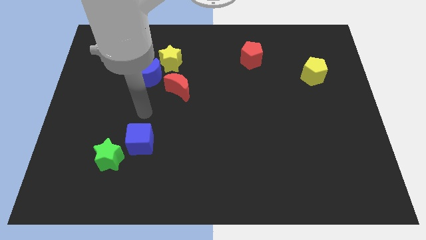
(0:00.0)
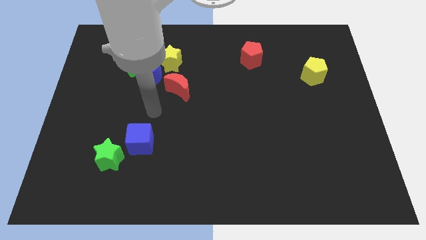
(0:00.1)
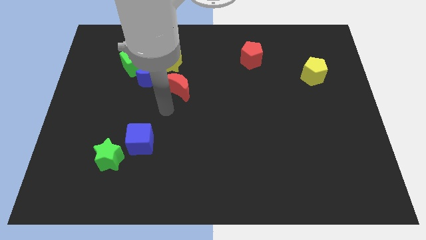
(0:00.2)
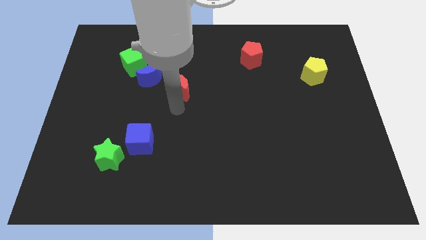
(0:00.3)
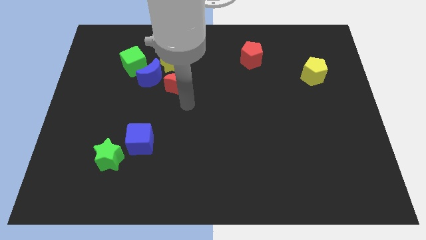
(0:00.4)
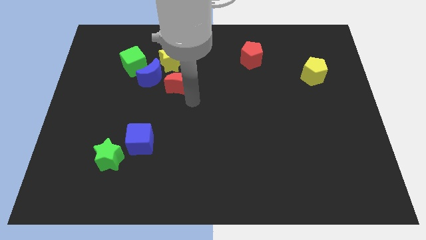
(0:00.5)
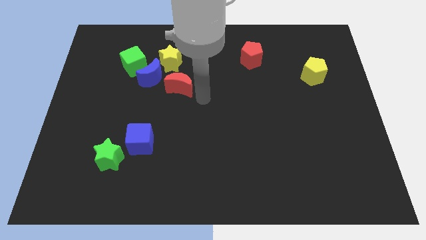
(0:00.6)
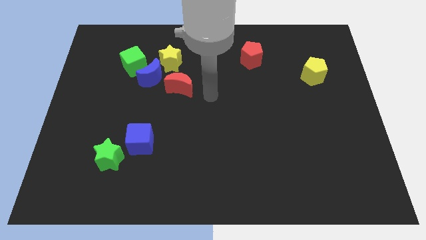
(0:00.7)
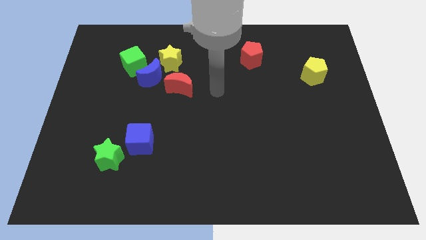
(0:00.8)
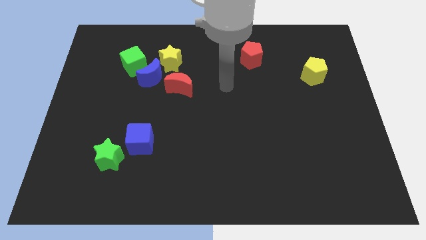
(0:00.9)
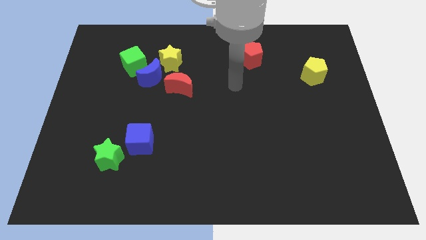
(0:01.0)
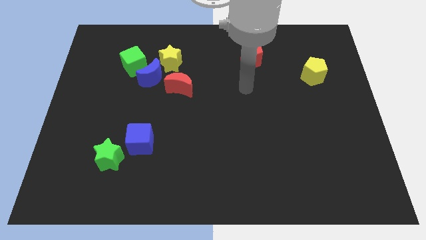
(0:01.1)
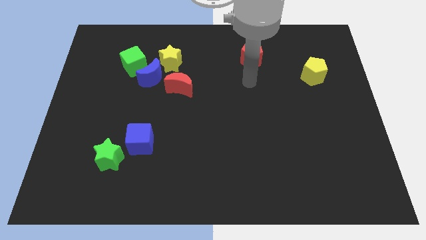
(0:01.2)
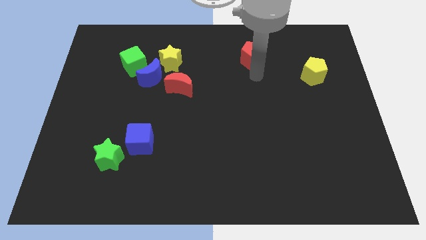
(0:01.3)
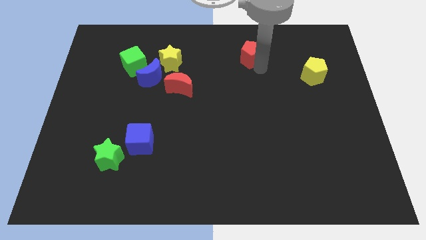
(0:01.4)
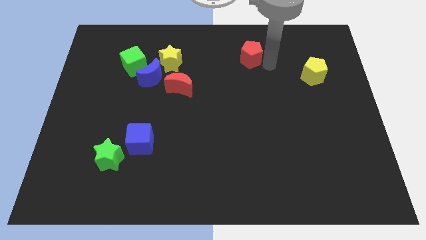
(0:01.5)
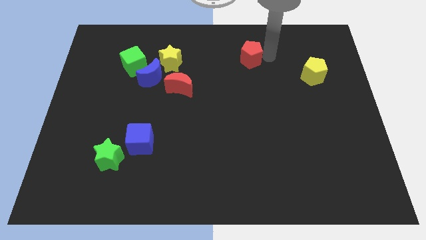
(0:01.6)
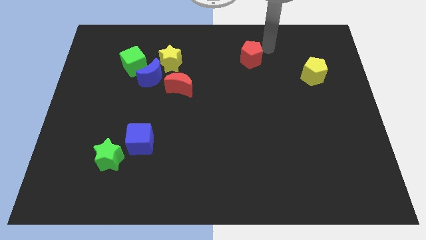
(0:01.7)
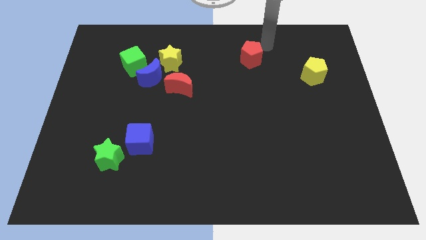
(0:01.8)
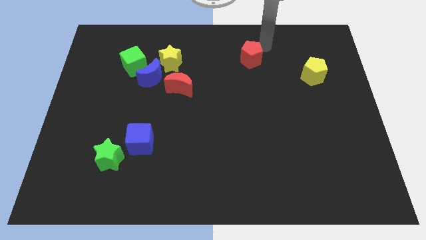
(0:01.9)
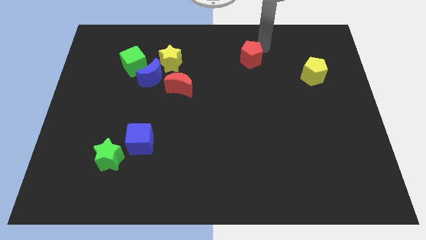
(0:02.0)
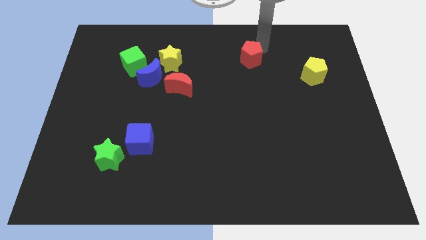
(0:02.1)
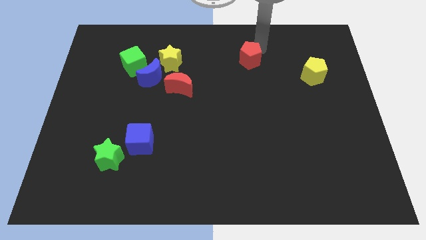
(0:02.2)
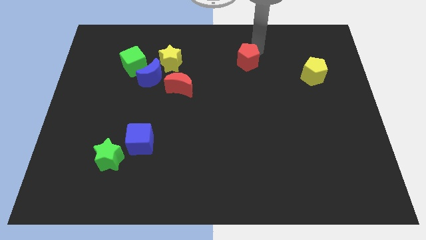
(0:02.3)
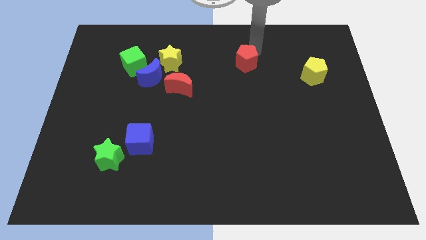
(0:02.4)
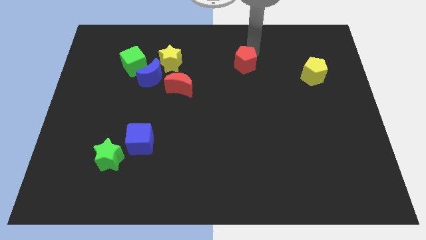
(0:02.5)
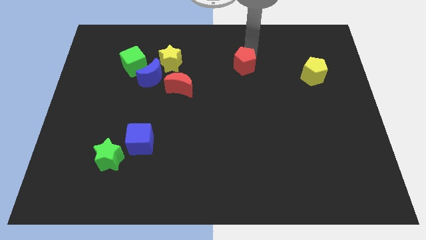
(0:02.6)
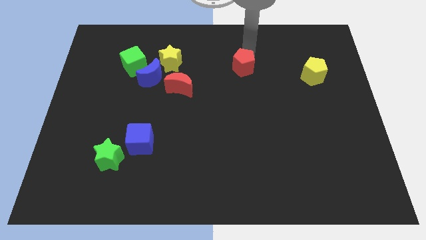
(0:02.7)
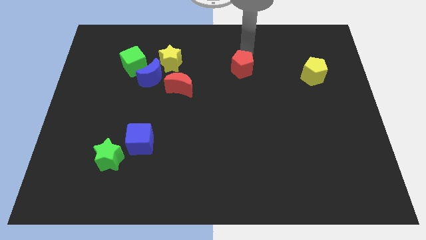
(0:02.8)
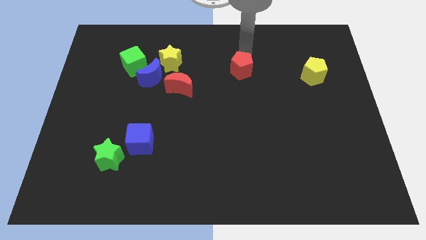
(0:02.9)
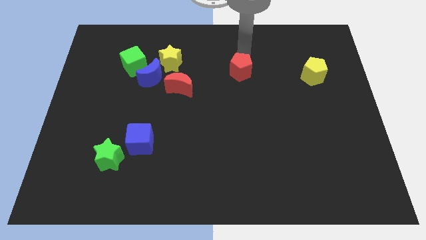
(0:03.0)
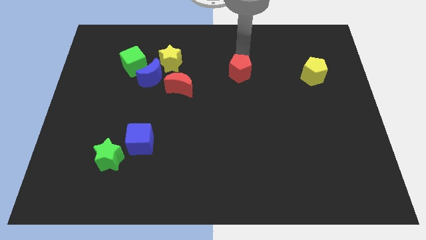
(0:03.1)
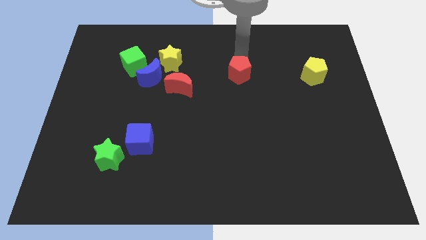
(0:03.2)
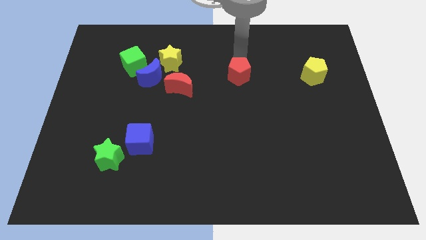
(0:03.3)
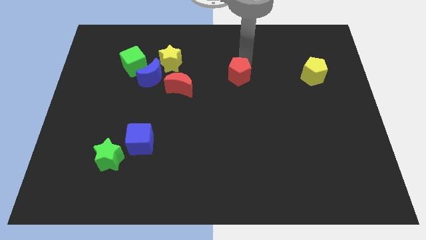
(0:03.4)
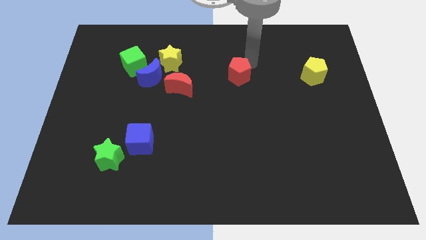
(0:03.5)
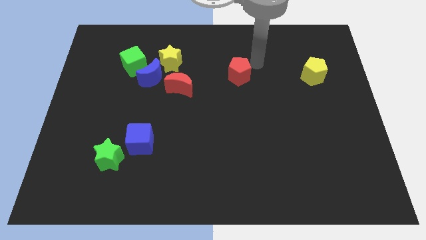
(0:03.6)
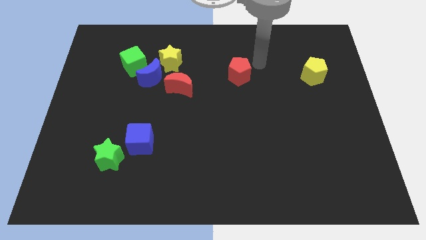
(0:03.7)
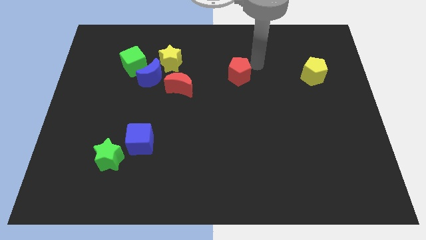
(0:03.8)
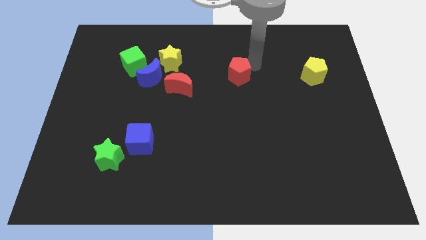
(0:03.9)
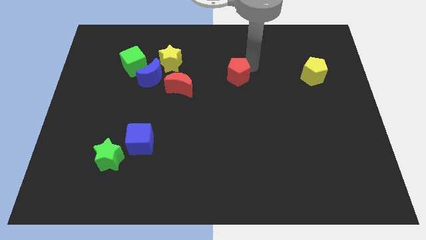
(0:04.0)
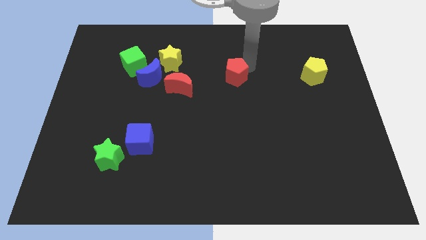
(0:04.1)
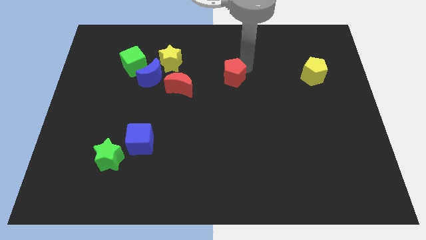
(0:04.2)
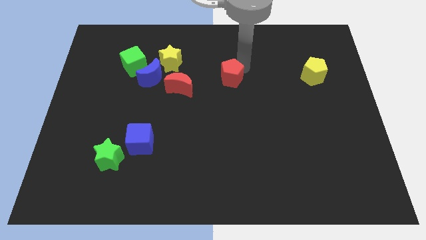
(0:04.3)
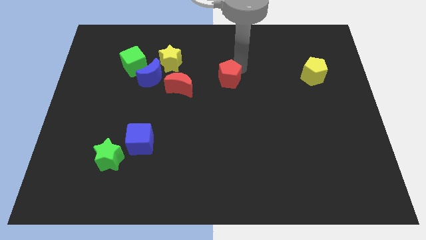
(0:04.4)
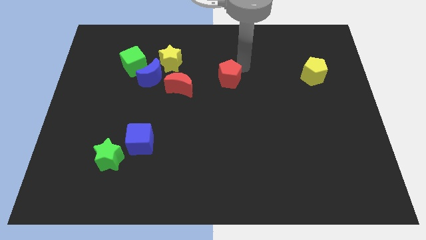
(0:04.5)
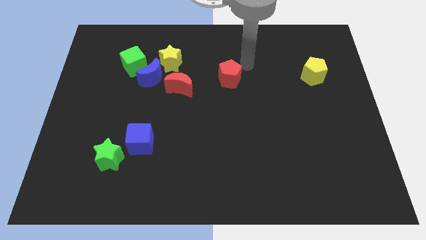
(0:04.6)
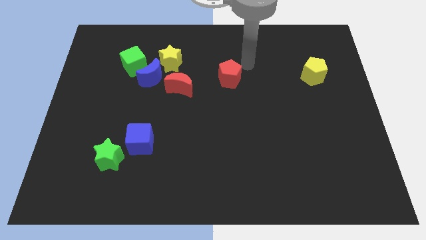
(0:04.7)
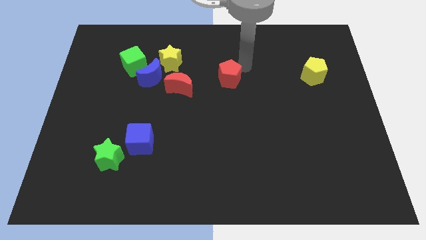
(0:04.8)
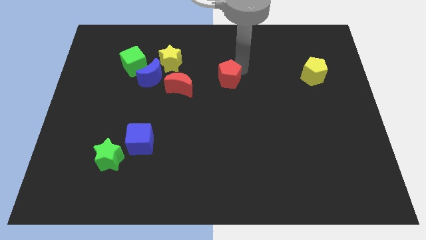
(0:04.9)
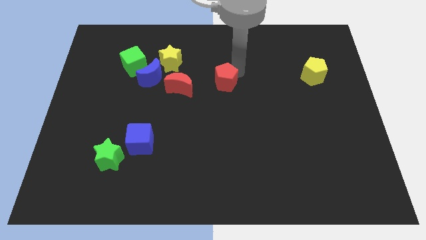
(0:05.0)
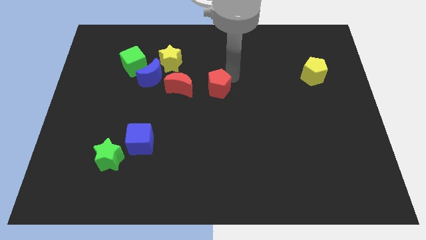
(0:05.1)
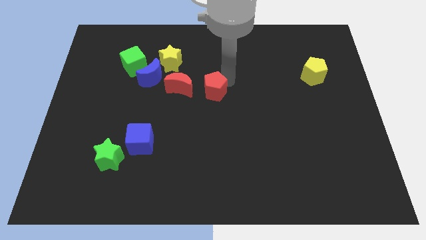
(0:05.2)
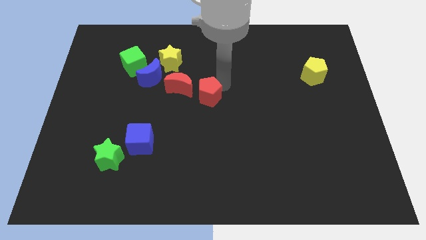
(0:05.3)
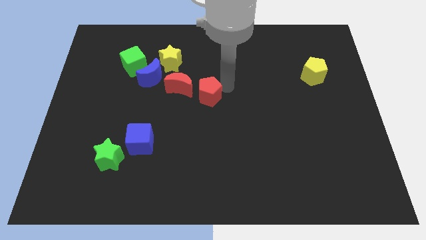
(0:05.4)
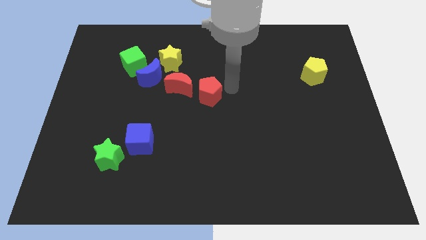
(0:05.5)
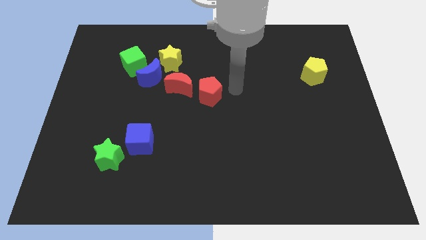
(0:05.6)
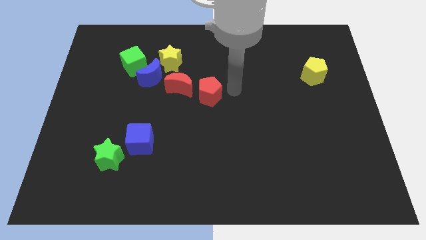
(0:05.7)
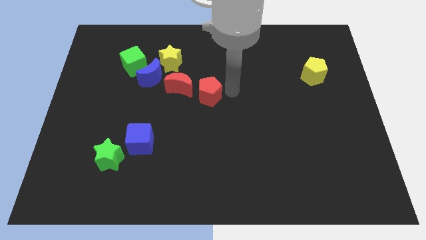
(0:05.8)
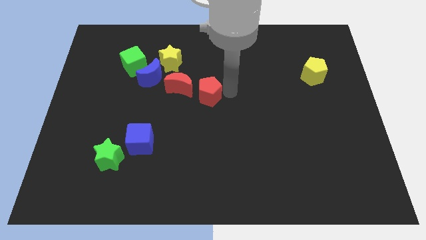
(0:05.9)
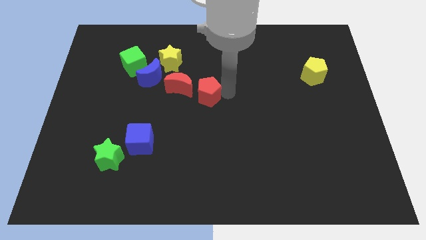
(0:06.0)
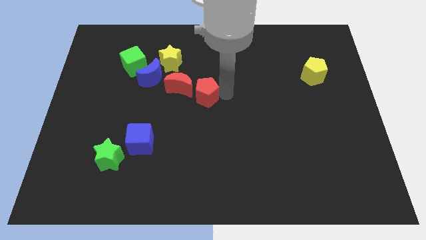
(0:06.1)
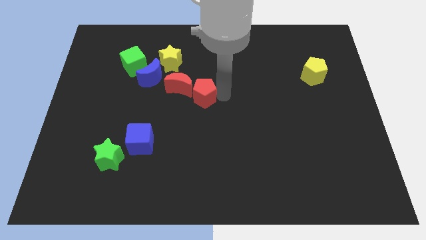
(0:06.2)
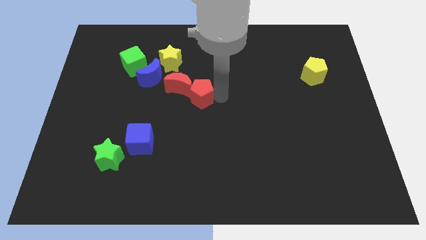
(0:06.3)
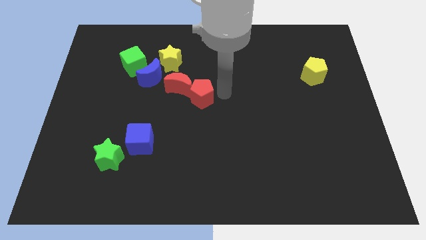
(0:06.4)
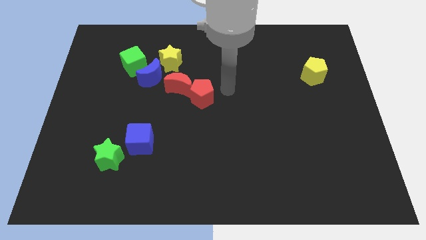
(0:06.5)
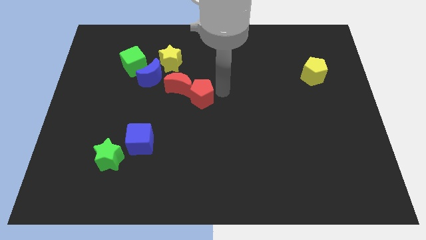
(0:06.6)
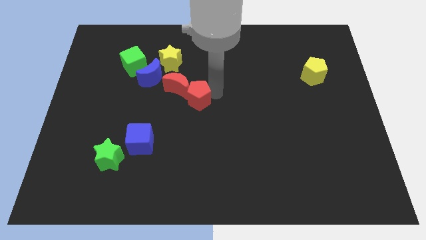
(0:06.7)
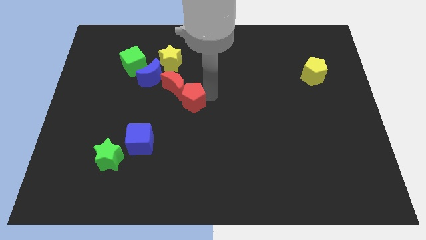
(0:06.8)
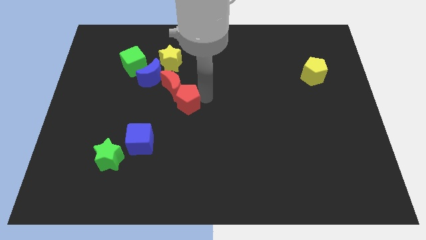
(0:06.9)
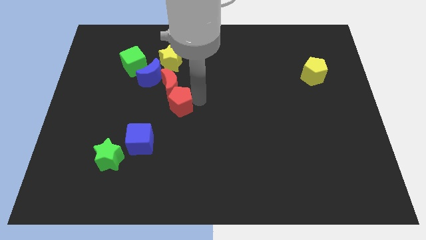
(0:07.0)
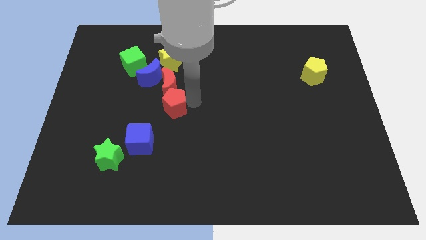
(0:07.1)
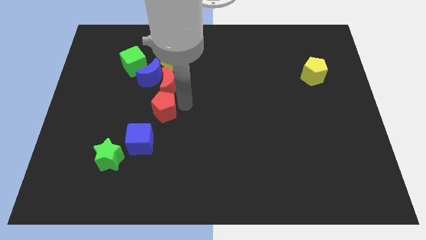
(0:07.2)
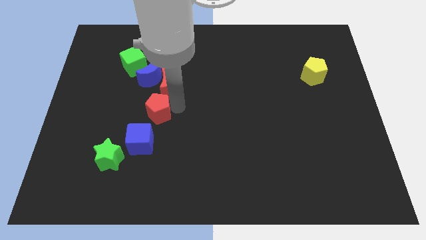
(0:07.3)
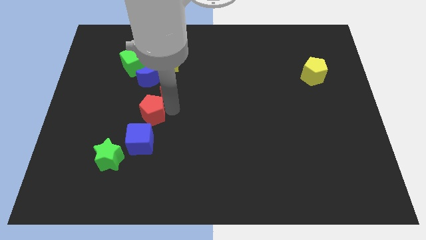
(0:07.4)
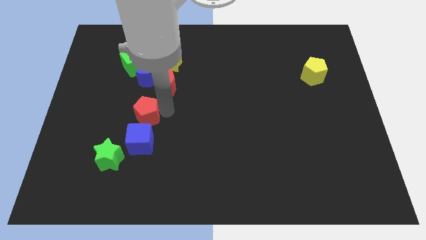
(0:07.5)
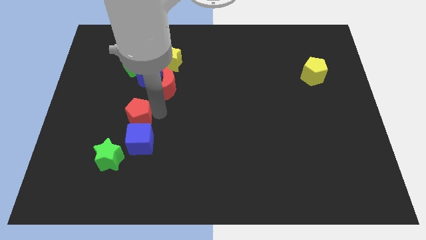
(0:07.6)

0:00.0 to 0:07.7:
push the red pentagon diagonally up and to the left of the blue cube
